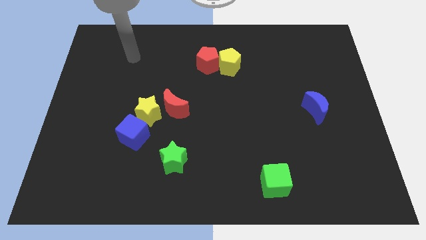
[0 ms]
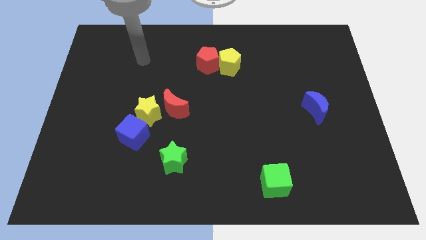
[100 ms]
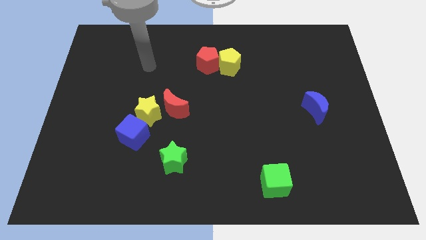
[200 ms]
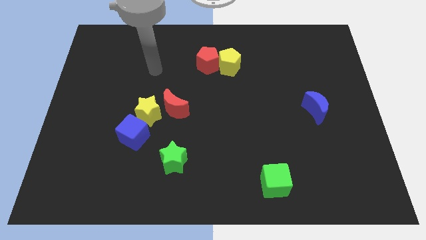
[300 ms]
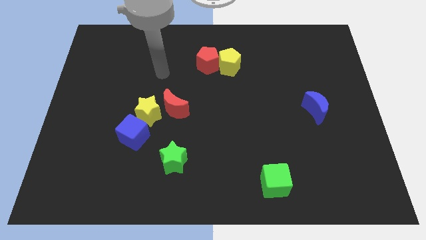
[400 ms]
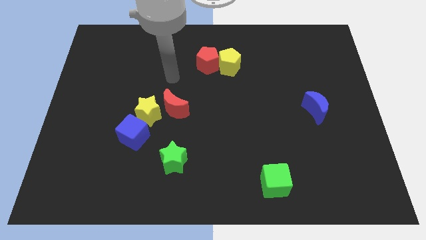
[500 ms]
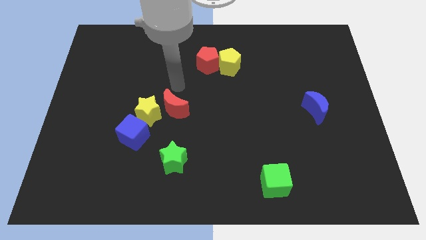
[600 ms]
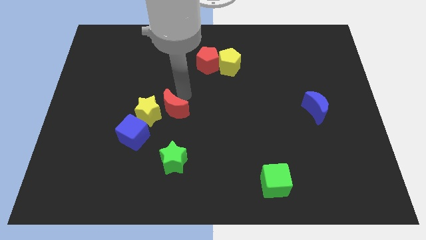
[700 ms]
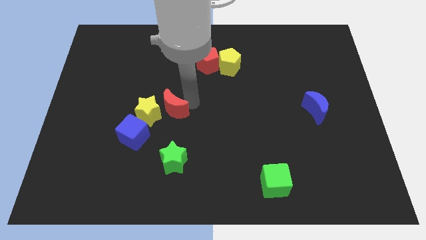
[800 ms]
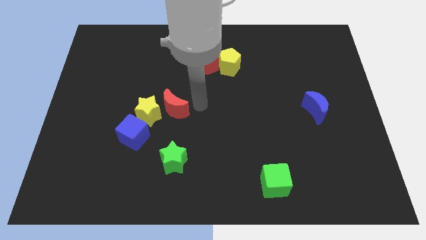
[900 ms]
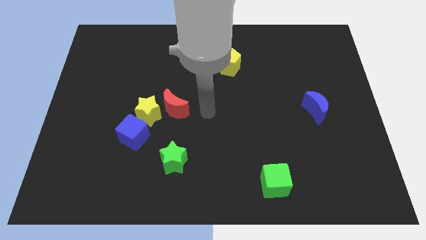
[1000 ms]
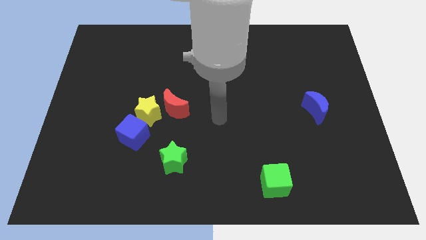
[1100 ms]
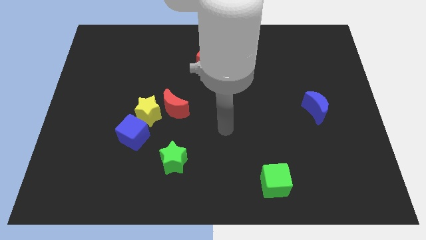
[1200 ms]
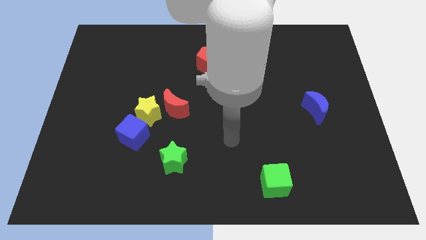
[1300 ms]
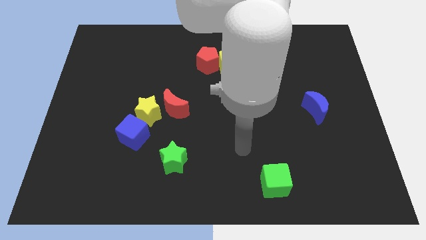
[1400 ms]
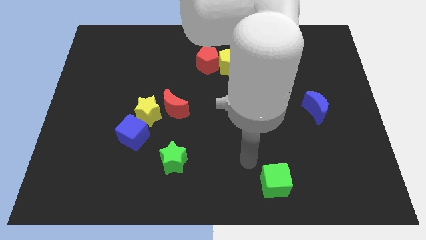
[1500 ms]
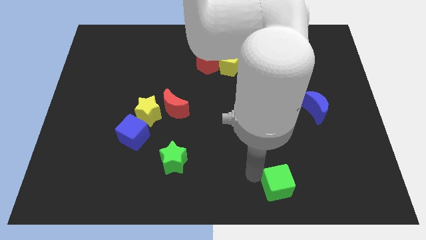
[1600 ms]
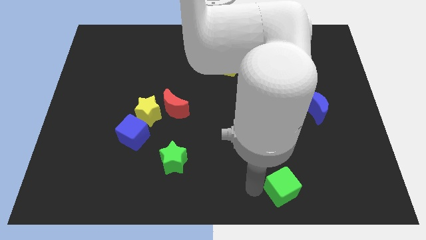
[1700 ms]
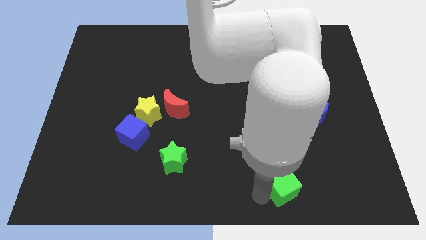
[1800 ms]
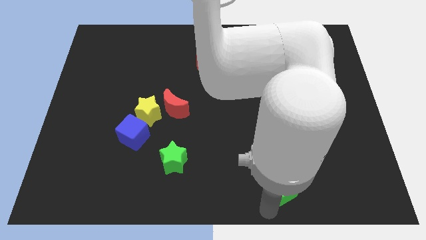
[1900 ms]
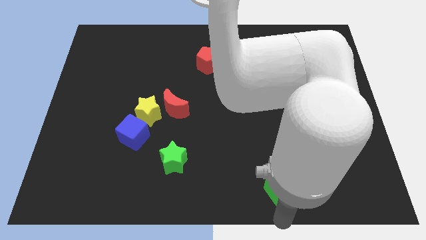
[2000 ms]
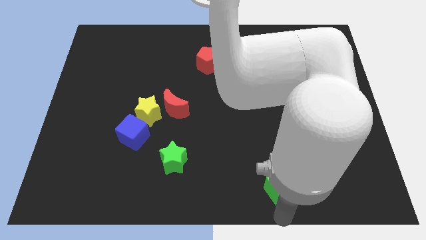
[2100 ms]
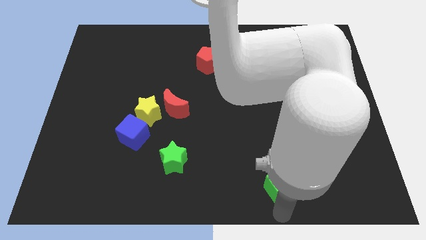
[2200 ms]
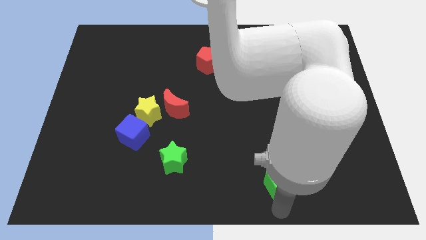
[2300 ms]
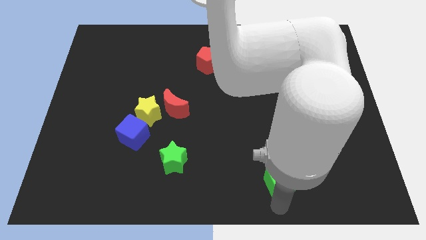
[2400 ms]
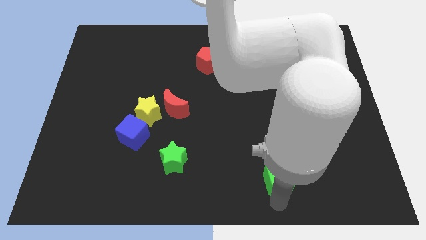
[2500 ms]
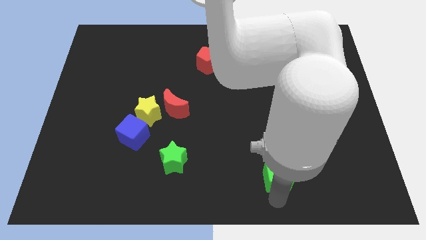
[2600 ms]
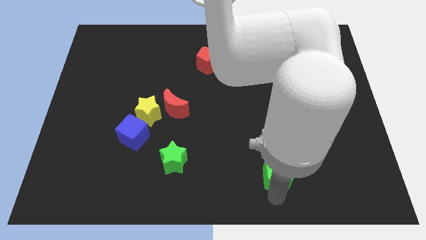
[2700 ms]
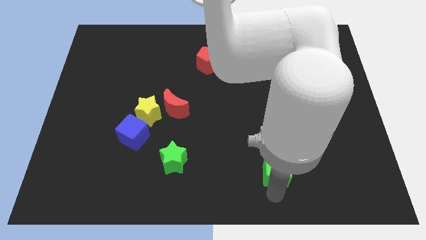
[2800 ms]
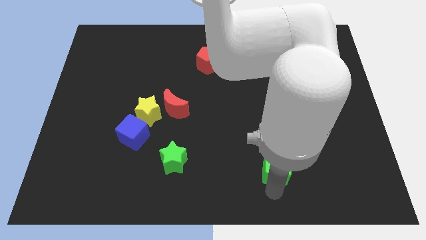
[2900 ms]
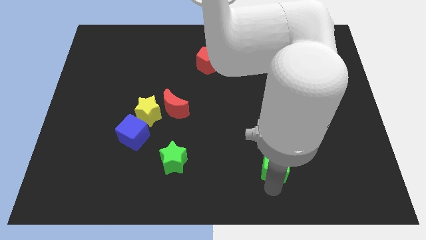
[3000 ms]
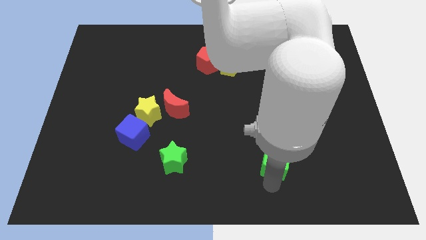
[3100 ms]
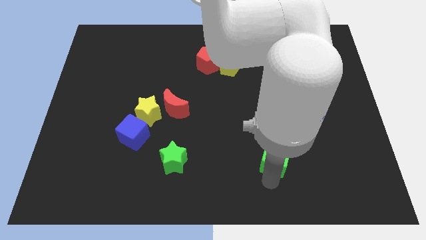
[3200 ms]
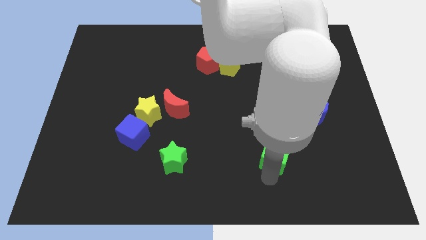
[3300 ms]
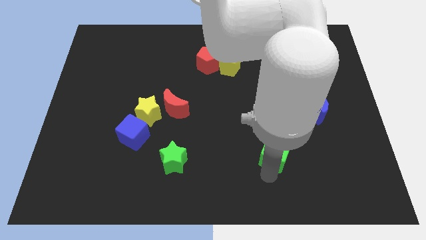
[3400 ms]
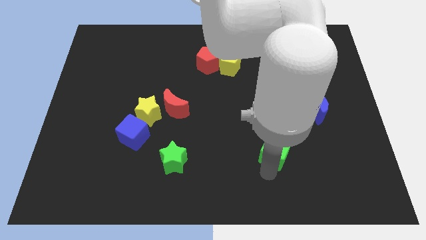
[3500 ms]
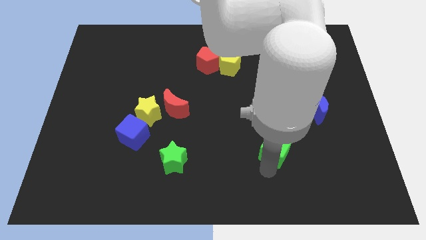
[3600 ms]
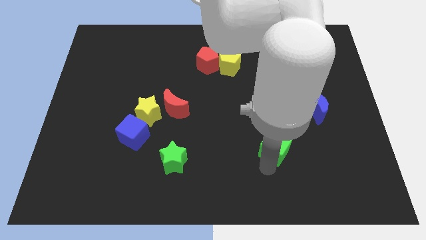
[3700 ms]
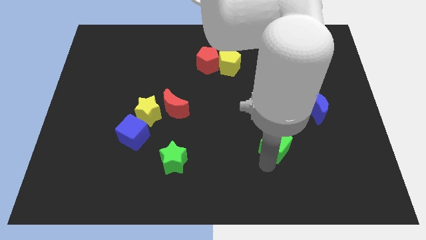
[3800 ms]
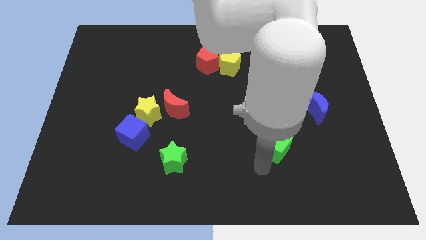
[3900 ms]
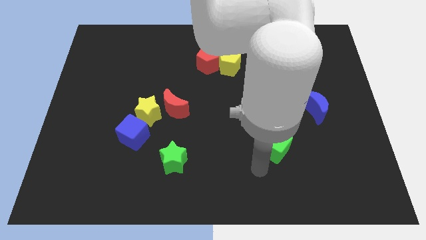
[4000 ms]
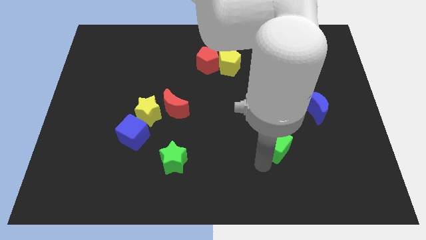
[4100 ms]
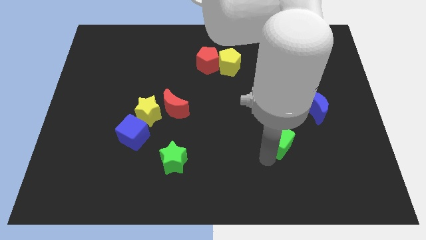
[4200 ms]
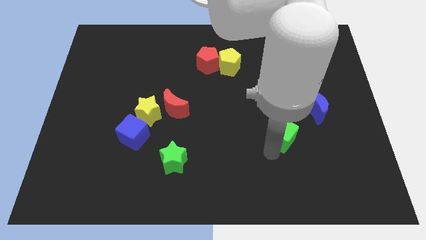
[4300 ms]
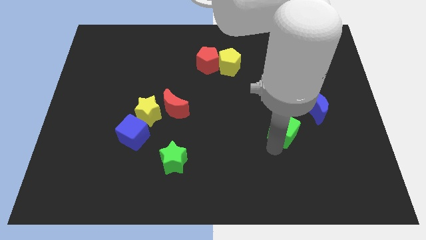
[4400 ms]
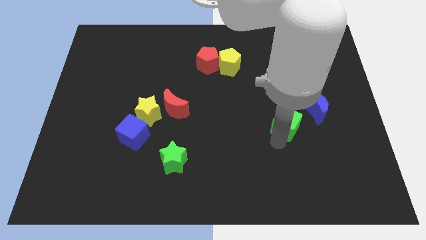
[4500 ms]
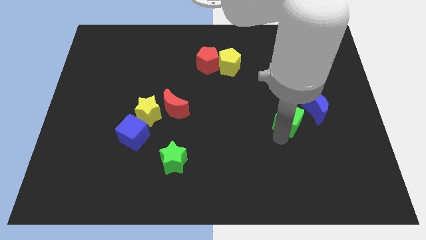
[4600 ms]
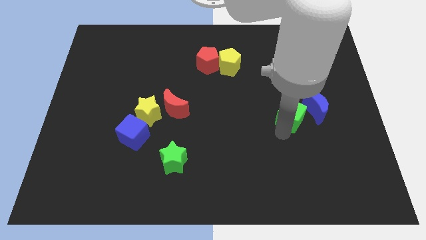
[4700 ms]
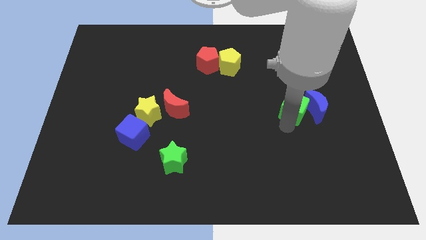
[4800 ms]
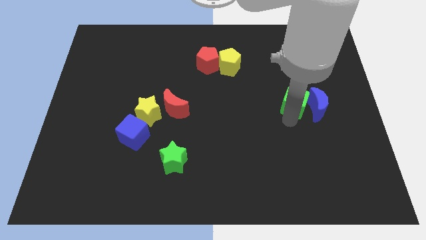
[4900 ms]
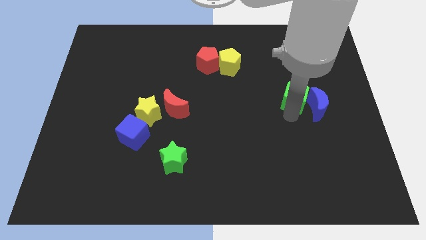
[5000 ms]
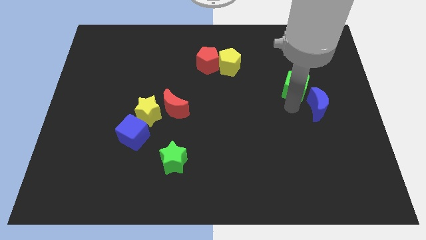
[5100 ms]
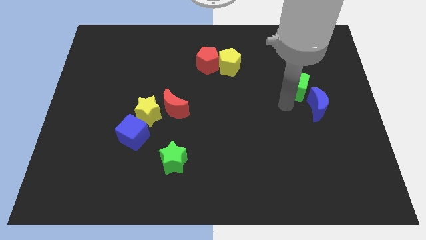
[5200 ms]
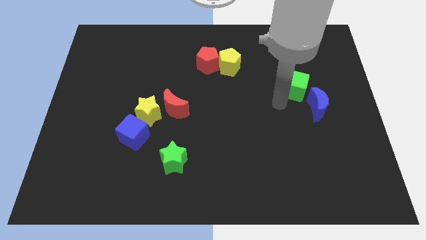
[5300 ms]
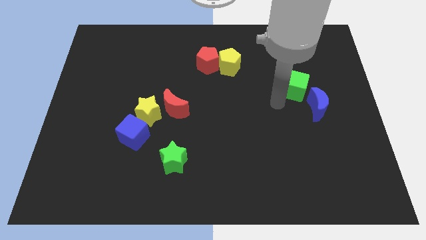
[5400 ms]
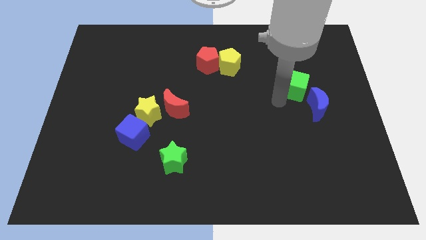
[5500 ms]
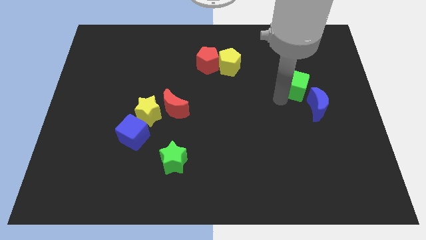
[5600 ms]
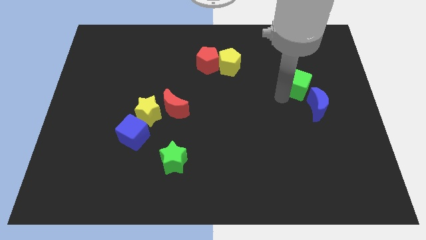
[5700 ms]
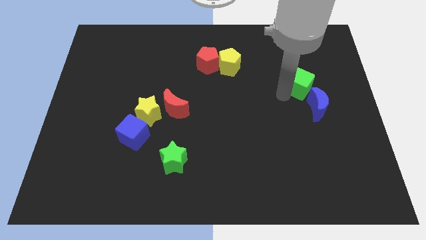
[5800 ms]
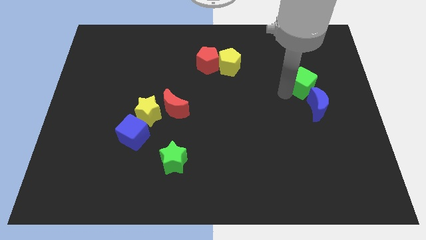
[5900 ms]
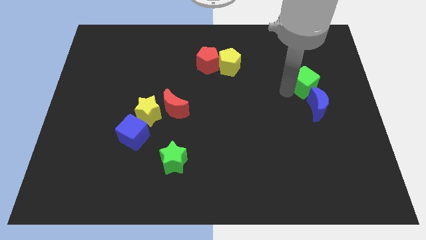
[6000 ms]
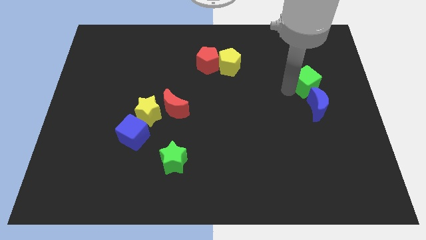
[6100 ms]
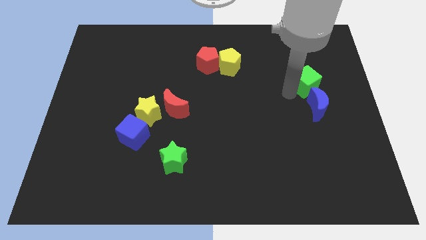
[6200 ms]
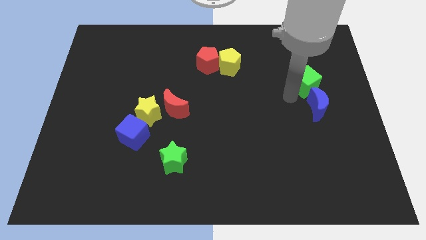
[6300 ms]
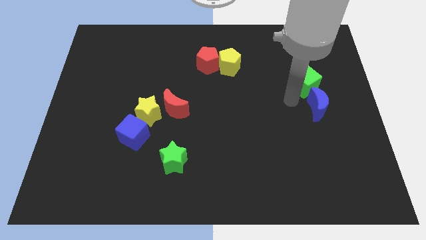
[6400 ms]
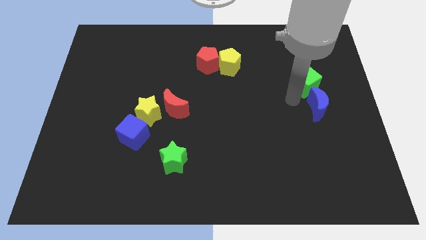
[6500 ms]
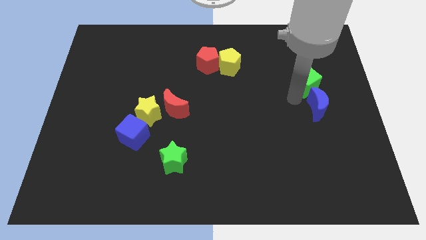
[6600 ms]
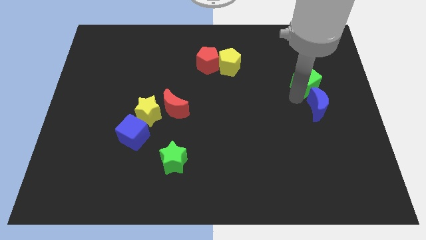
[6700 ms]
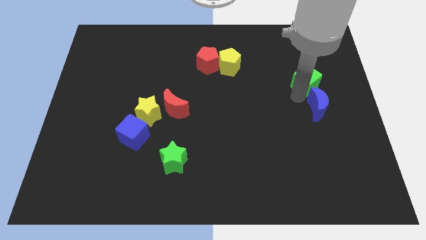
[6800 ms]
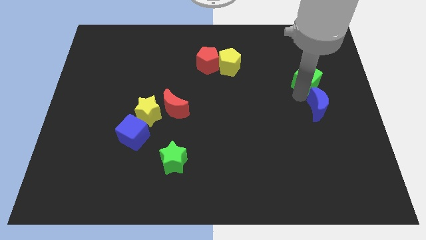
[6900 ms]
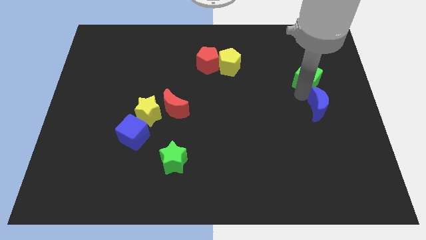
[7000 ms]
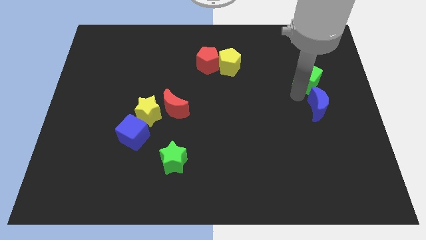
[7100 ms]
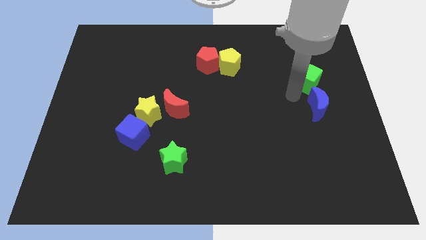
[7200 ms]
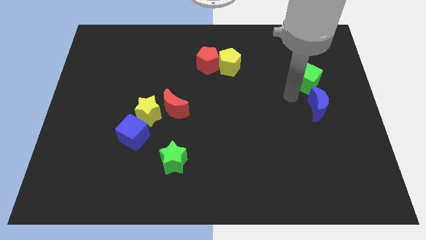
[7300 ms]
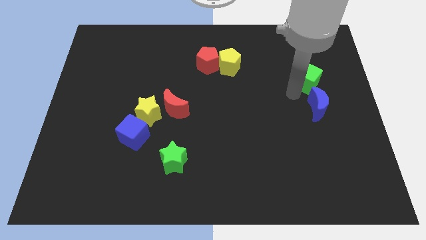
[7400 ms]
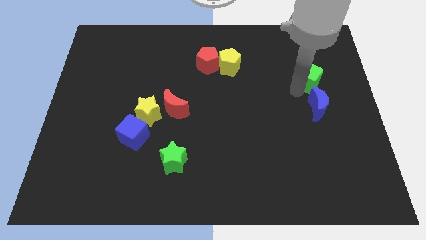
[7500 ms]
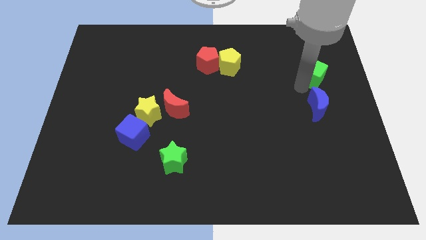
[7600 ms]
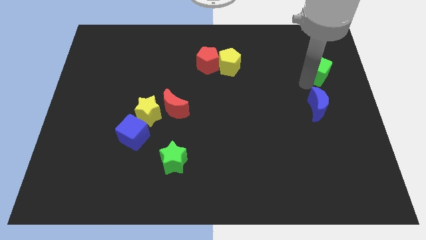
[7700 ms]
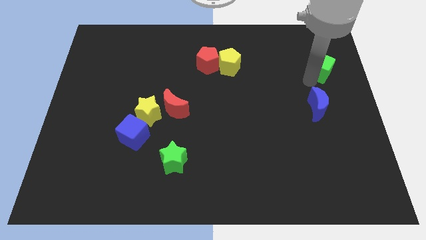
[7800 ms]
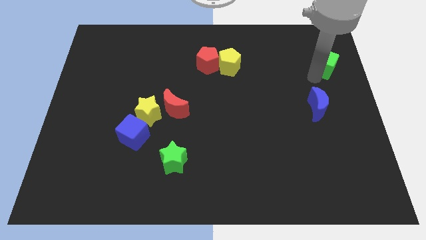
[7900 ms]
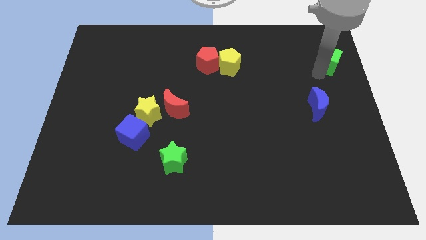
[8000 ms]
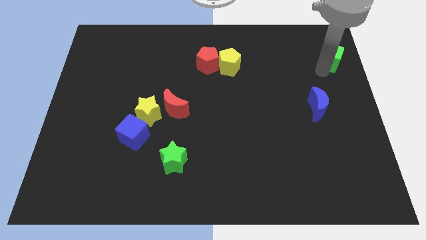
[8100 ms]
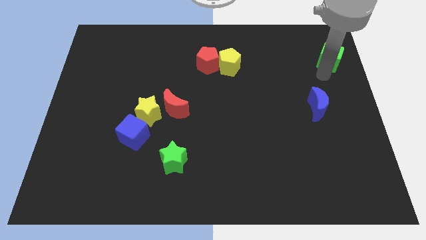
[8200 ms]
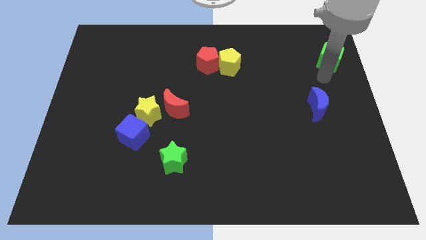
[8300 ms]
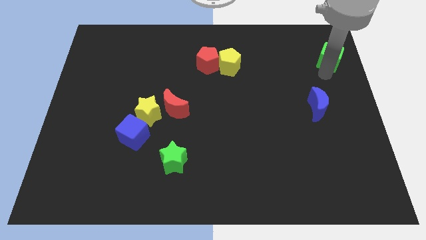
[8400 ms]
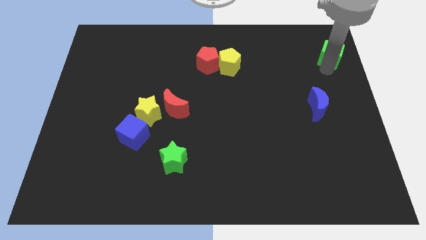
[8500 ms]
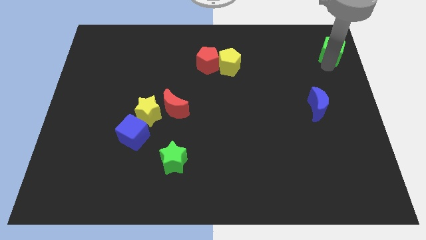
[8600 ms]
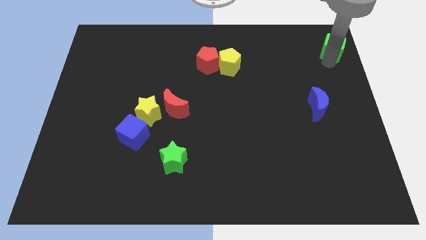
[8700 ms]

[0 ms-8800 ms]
push the green cube to the top right of the board
